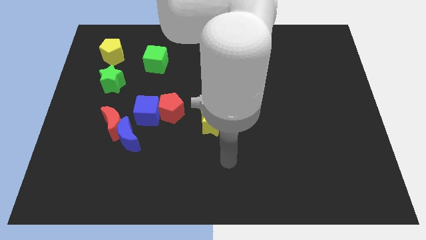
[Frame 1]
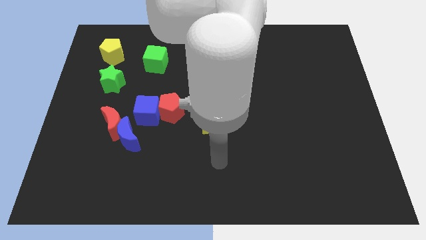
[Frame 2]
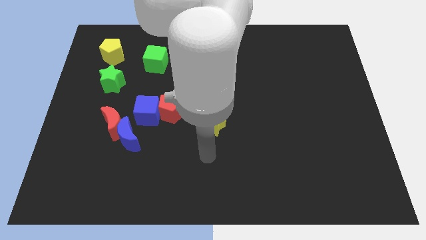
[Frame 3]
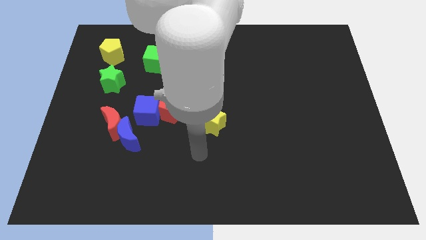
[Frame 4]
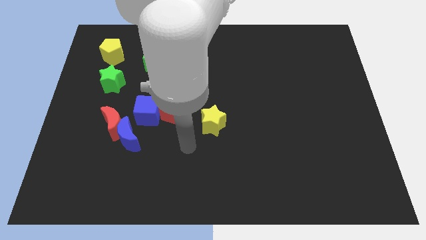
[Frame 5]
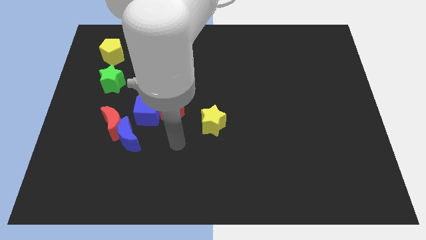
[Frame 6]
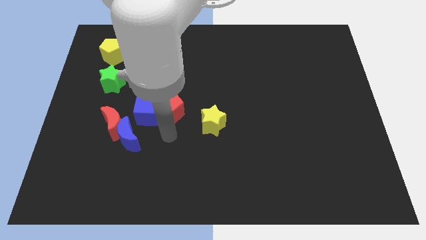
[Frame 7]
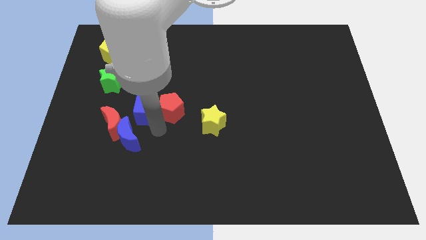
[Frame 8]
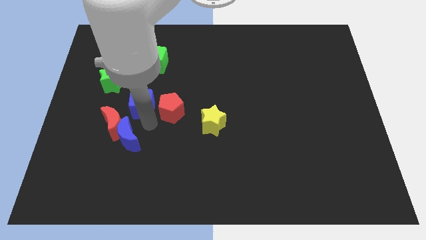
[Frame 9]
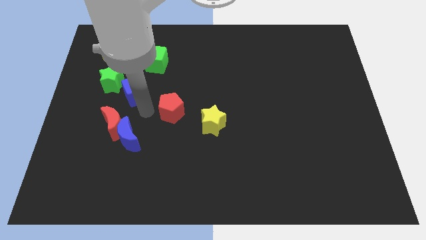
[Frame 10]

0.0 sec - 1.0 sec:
pull the red pentagon apart from the blue cube

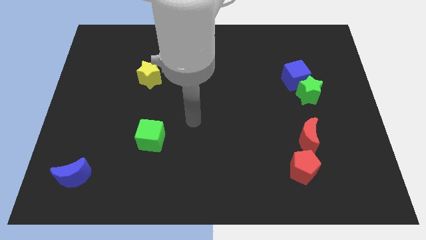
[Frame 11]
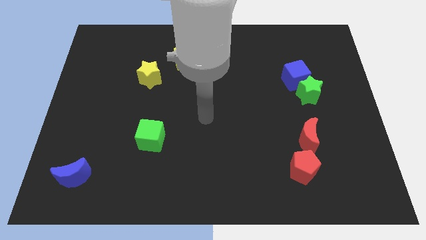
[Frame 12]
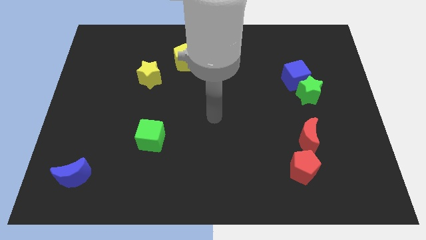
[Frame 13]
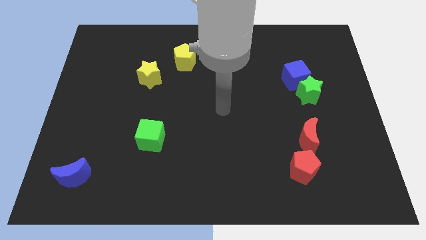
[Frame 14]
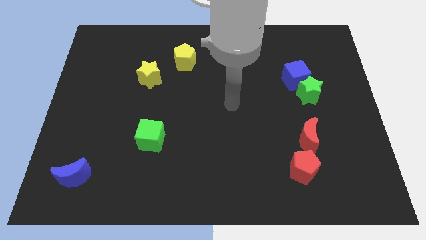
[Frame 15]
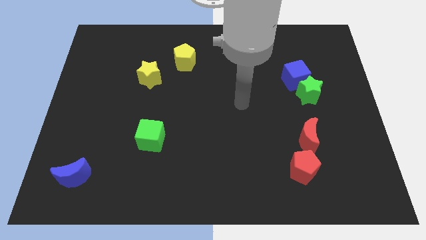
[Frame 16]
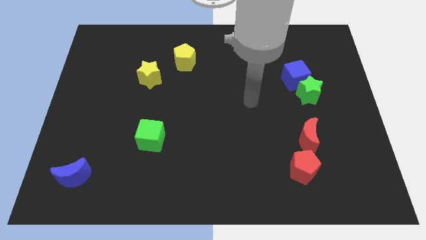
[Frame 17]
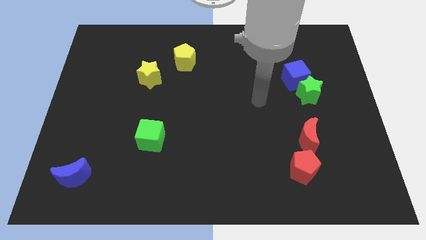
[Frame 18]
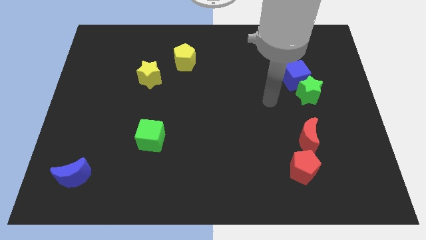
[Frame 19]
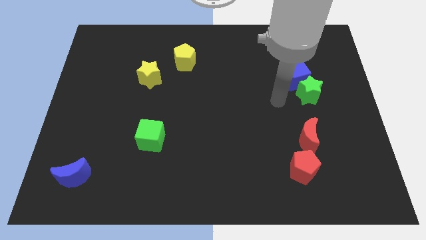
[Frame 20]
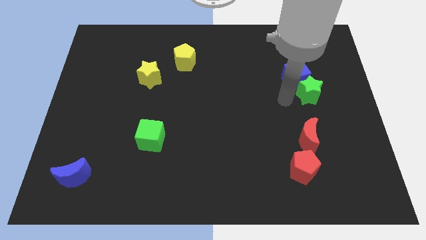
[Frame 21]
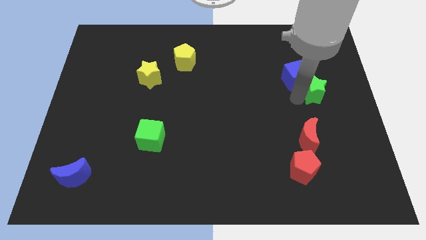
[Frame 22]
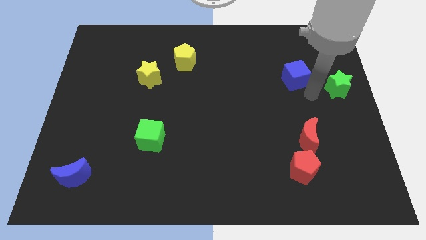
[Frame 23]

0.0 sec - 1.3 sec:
pull the blue cube apart from the green star

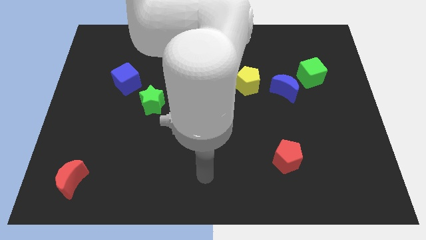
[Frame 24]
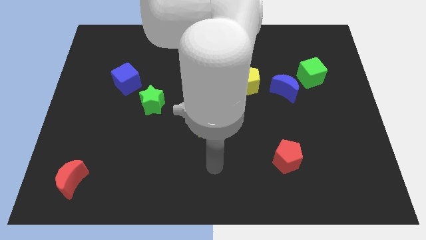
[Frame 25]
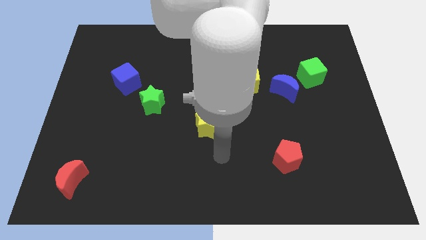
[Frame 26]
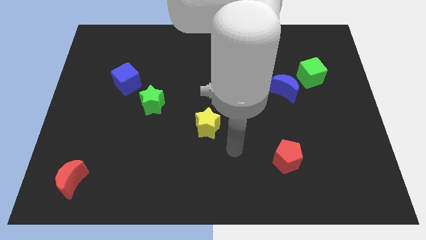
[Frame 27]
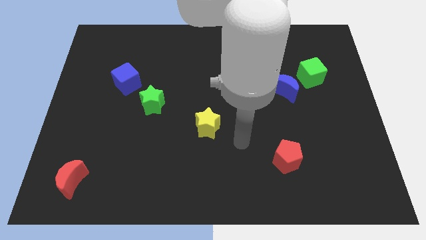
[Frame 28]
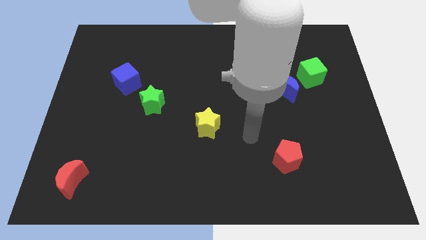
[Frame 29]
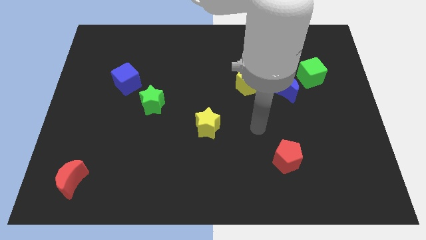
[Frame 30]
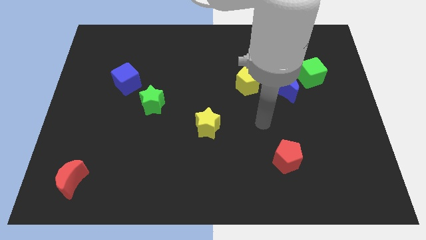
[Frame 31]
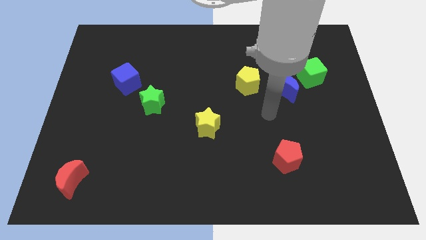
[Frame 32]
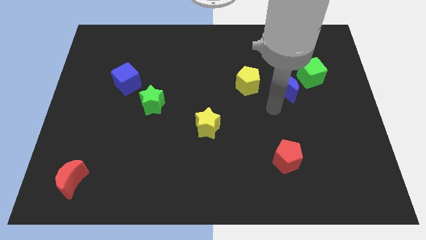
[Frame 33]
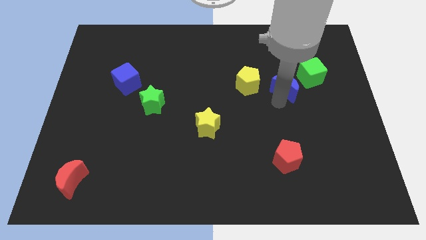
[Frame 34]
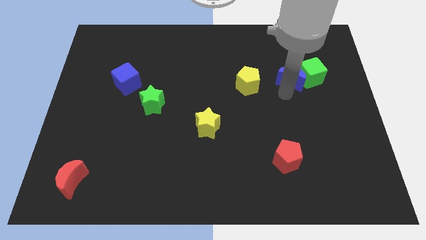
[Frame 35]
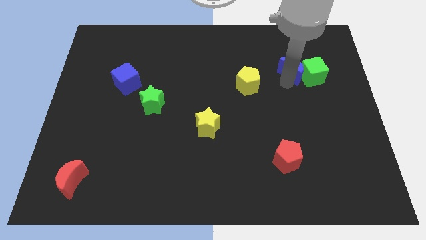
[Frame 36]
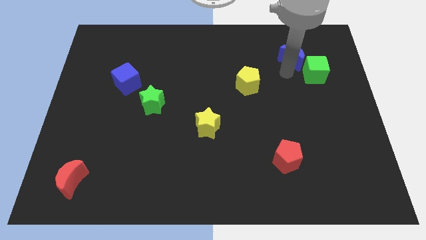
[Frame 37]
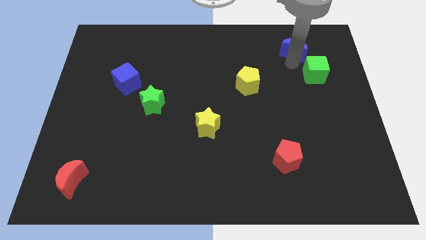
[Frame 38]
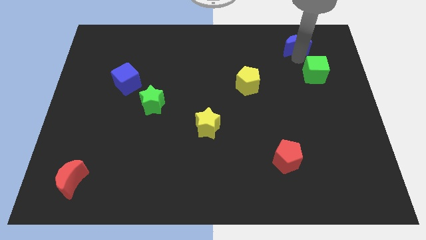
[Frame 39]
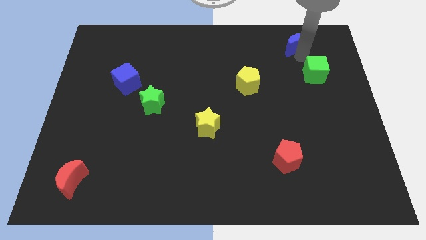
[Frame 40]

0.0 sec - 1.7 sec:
pull the green cube apart from the blue moon

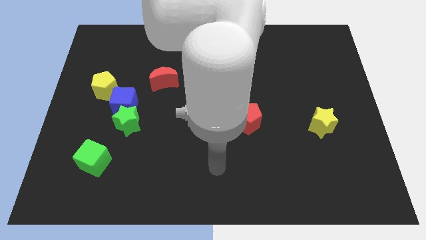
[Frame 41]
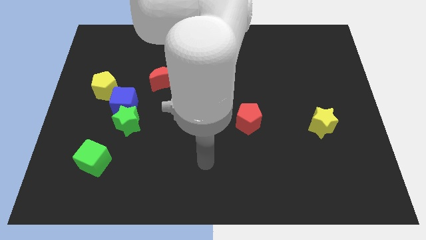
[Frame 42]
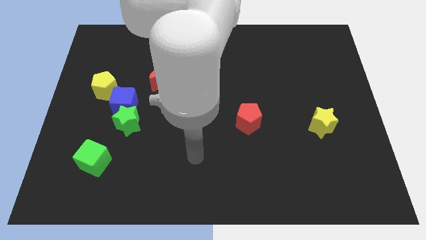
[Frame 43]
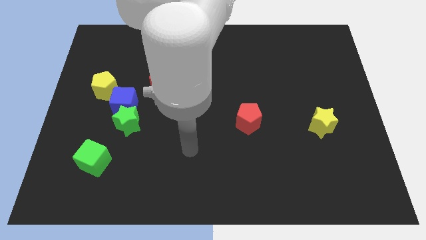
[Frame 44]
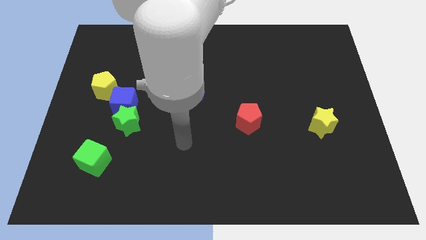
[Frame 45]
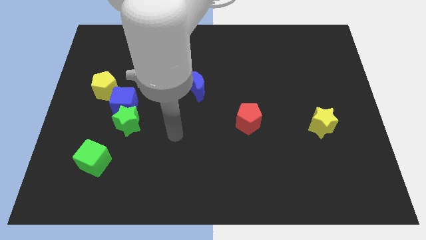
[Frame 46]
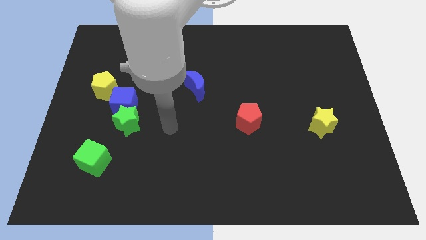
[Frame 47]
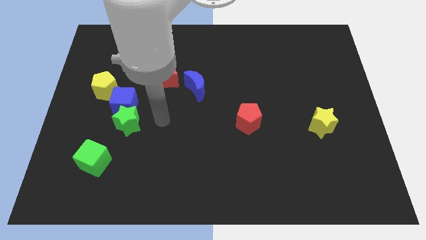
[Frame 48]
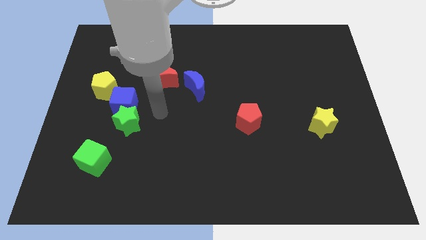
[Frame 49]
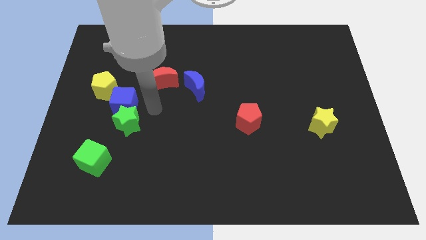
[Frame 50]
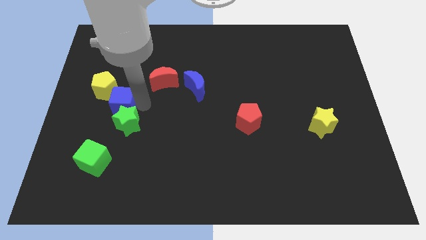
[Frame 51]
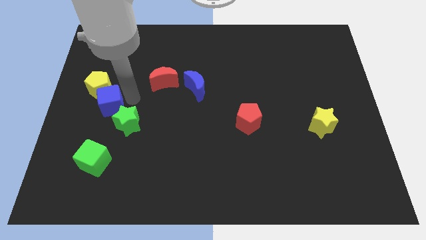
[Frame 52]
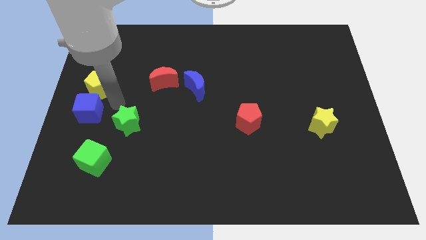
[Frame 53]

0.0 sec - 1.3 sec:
separate the green star from the blue cube

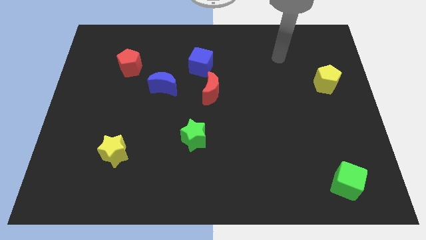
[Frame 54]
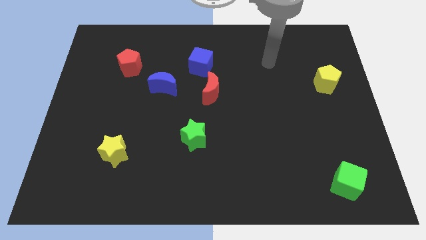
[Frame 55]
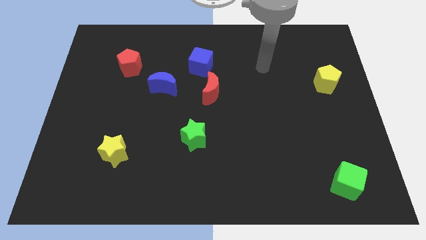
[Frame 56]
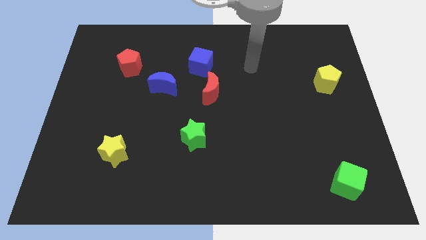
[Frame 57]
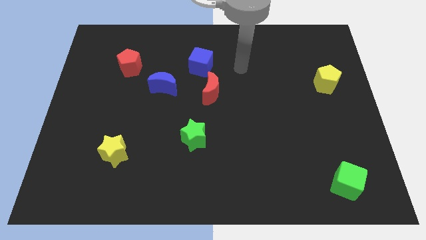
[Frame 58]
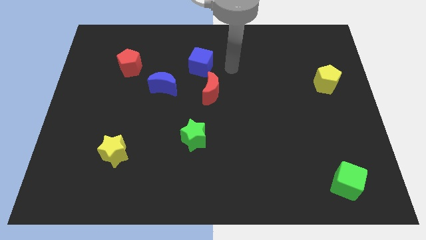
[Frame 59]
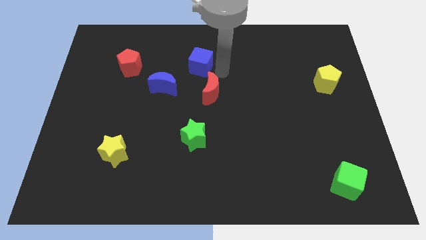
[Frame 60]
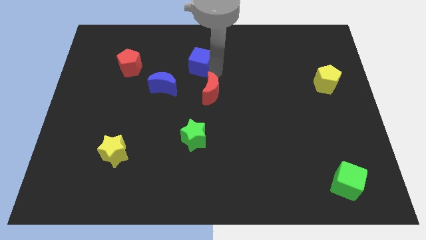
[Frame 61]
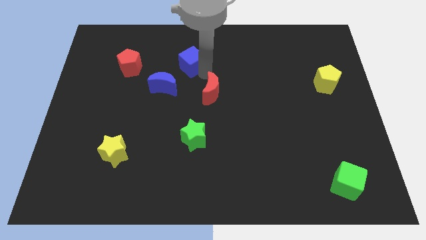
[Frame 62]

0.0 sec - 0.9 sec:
move the red moon away from the blue cube

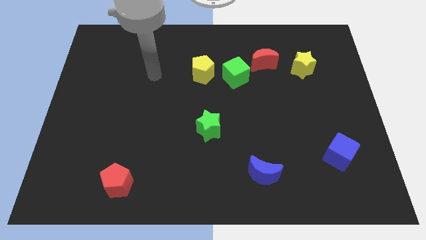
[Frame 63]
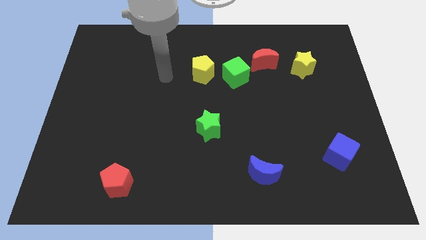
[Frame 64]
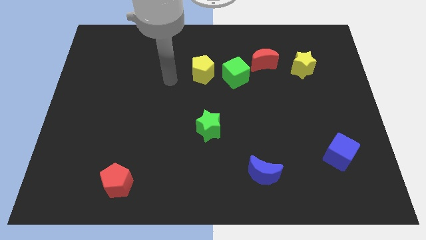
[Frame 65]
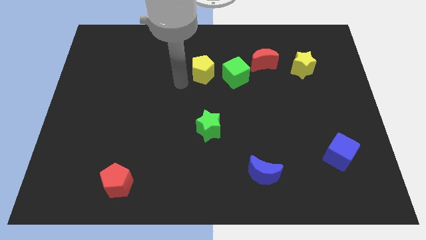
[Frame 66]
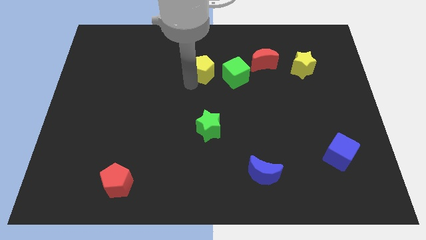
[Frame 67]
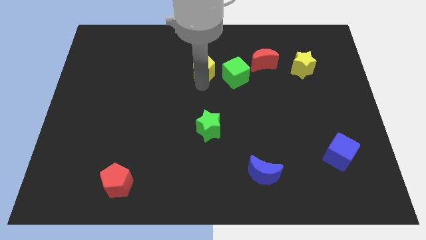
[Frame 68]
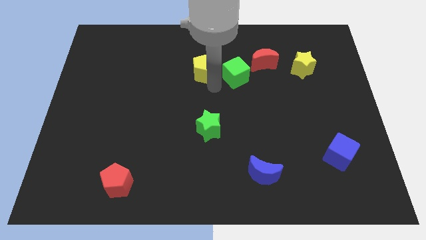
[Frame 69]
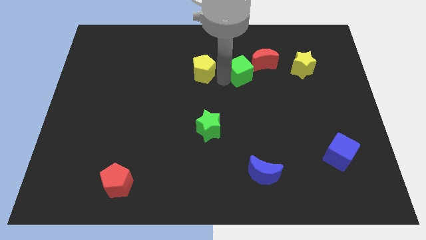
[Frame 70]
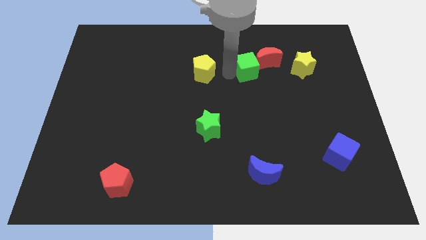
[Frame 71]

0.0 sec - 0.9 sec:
separate the yellow pentagon from the green cube

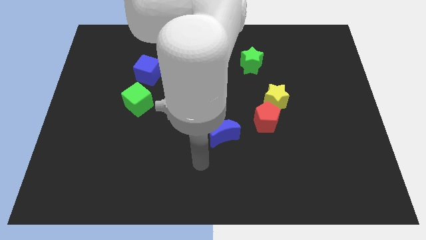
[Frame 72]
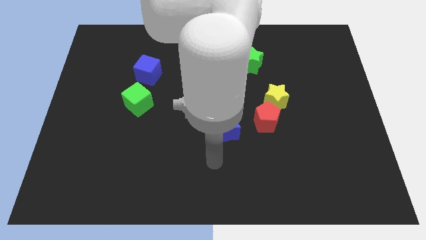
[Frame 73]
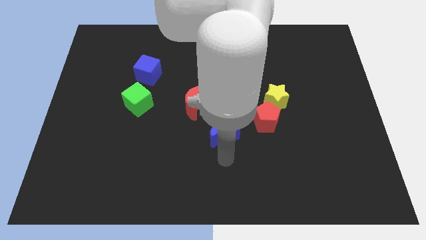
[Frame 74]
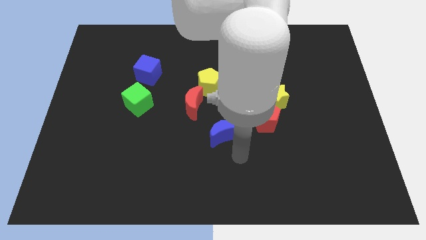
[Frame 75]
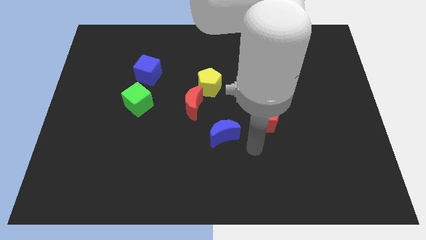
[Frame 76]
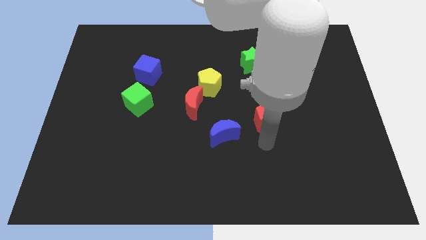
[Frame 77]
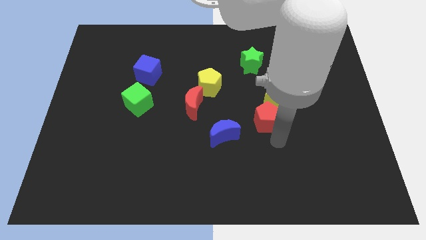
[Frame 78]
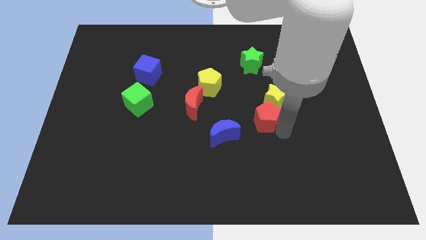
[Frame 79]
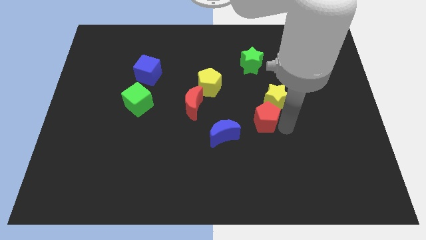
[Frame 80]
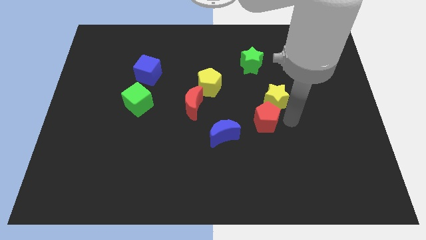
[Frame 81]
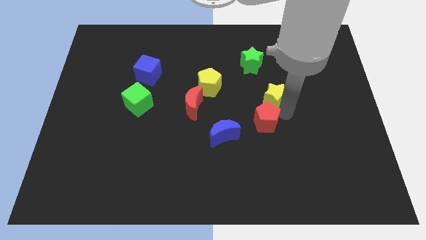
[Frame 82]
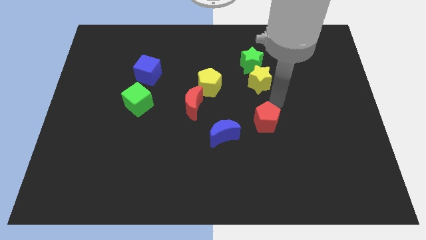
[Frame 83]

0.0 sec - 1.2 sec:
separate the red pentagon from the yellow star

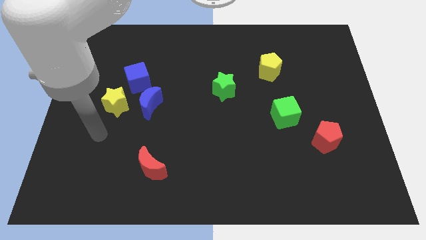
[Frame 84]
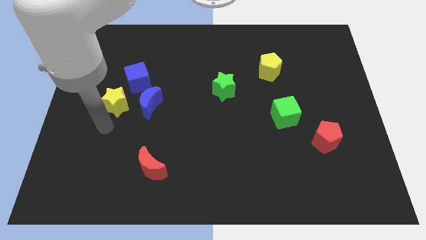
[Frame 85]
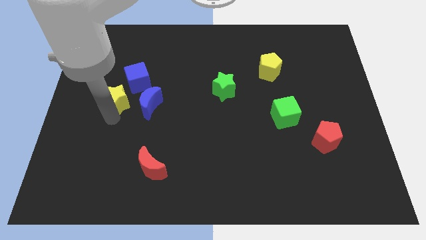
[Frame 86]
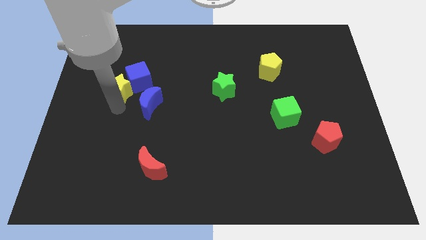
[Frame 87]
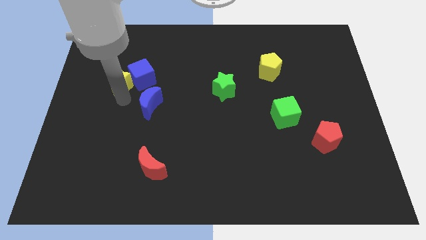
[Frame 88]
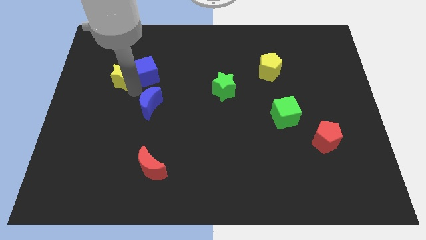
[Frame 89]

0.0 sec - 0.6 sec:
move the blue moon away from the yellow star and blue cube

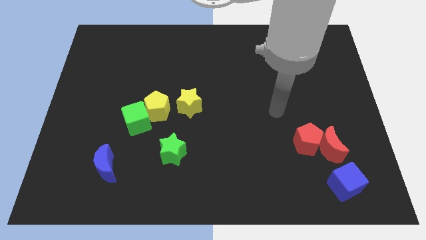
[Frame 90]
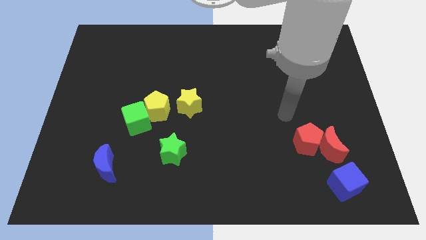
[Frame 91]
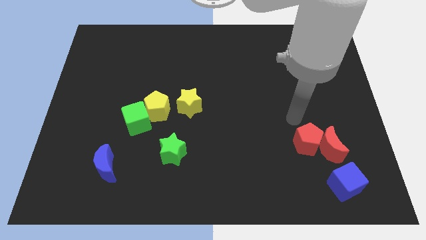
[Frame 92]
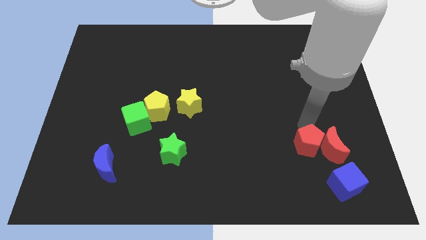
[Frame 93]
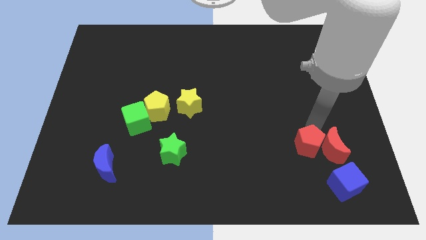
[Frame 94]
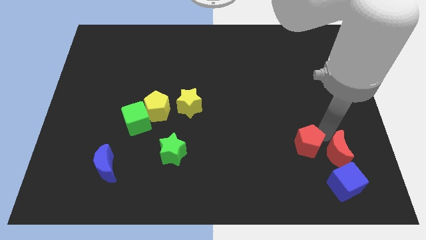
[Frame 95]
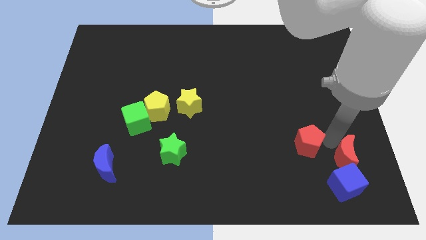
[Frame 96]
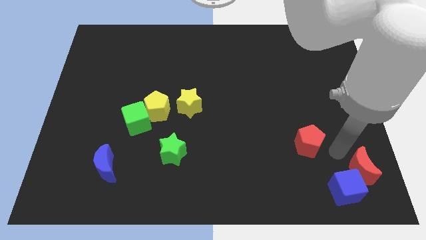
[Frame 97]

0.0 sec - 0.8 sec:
move the red pentagon away from the red moon
